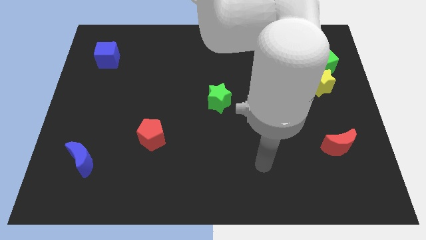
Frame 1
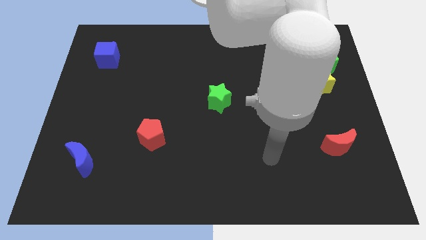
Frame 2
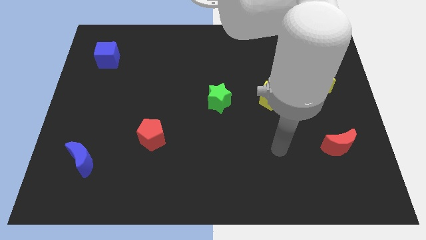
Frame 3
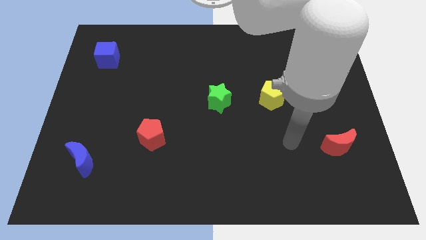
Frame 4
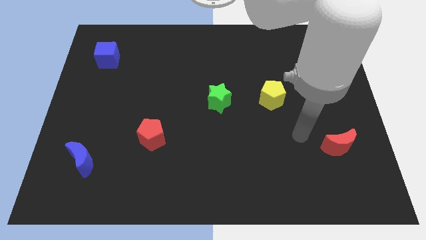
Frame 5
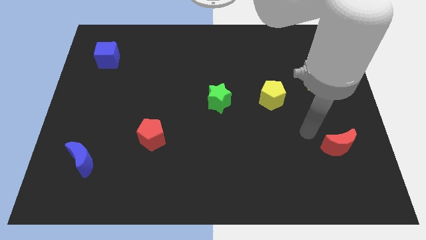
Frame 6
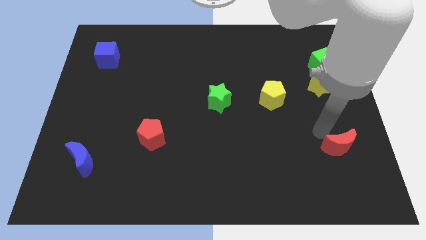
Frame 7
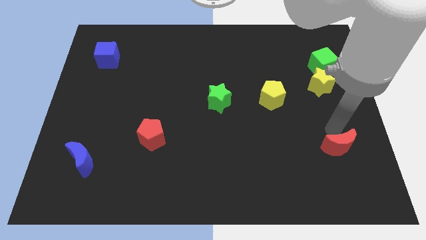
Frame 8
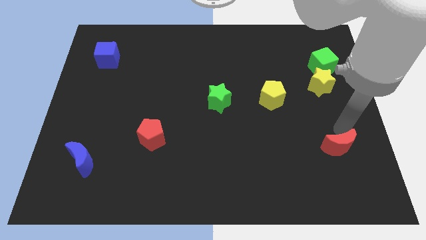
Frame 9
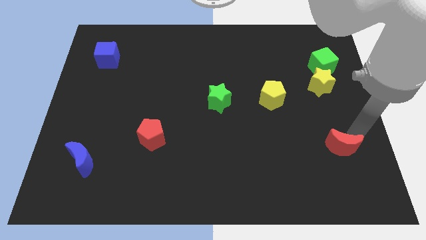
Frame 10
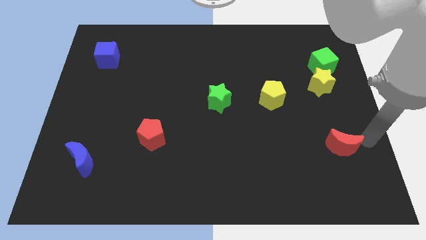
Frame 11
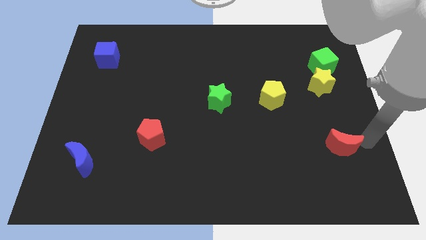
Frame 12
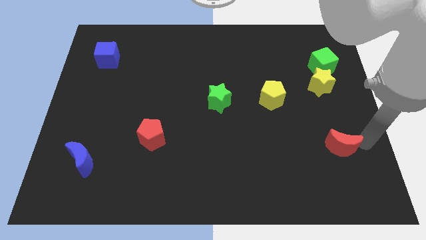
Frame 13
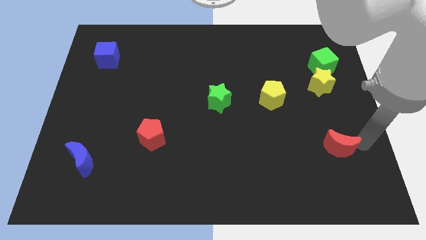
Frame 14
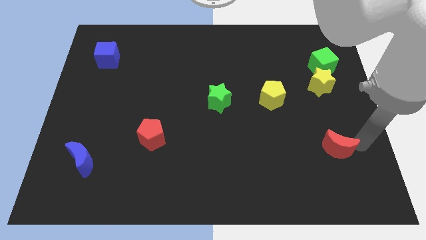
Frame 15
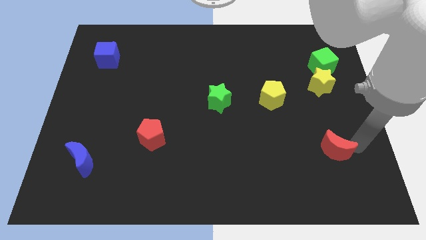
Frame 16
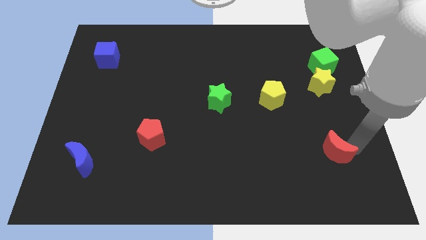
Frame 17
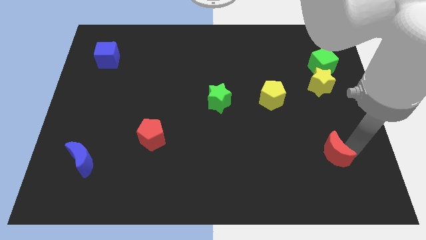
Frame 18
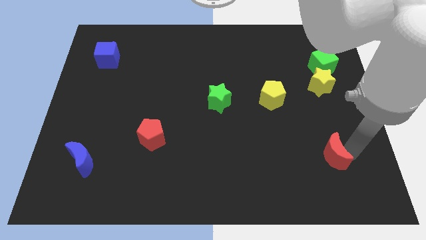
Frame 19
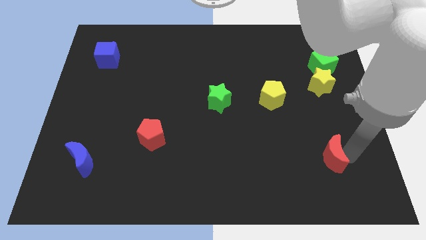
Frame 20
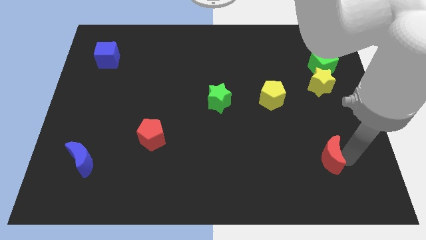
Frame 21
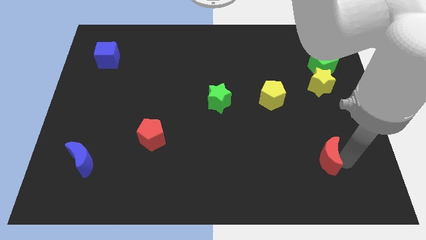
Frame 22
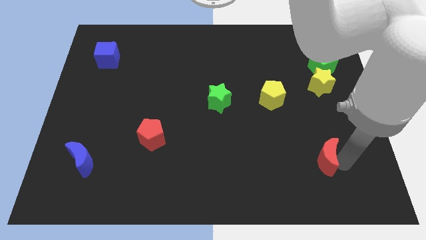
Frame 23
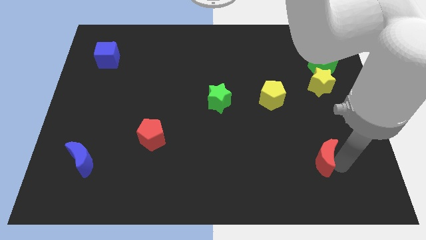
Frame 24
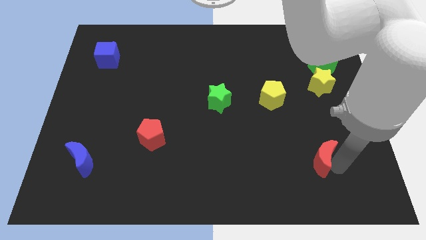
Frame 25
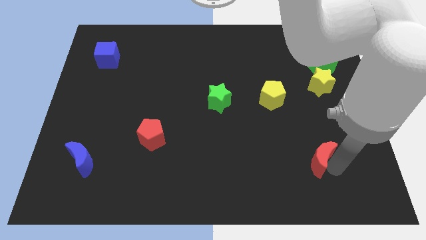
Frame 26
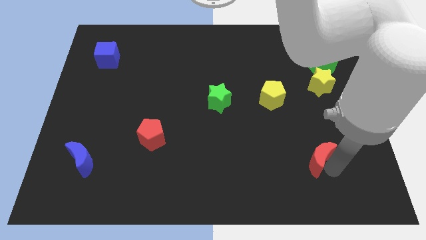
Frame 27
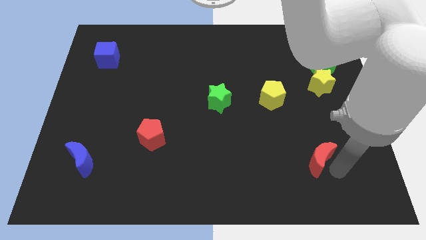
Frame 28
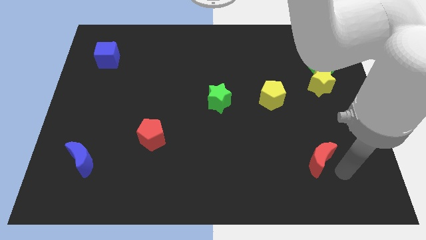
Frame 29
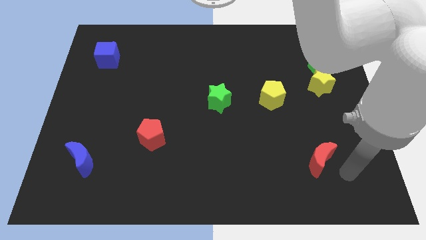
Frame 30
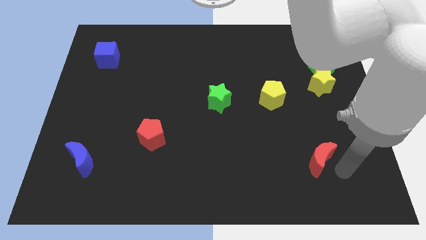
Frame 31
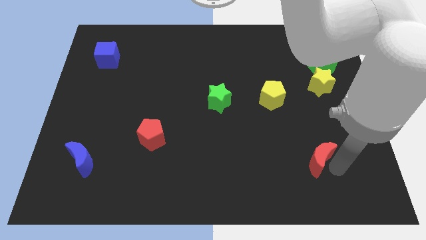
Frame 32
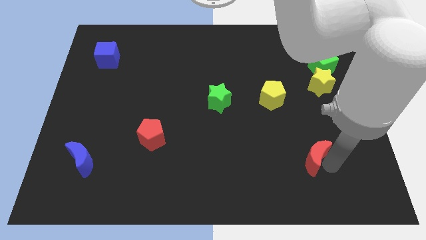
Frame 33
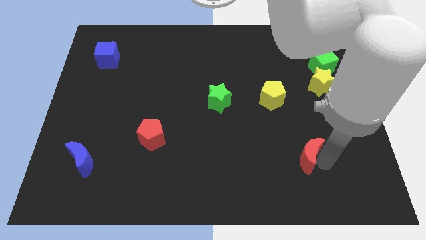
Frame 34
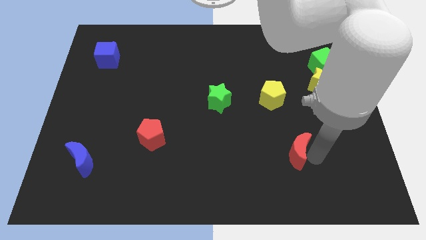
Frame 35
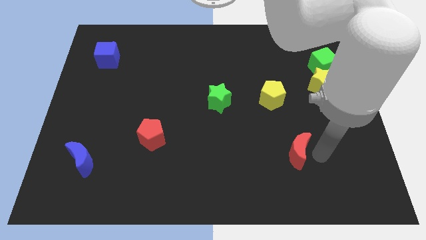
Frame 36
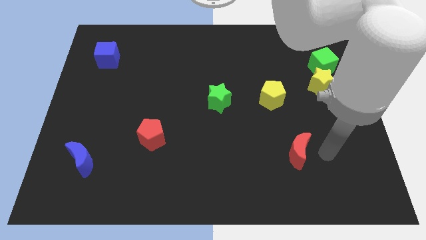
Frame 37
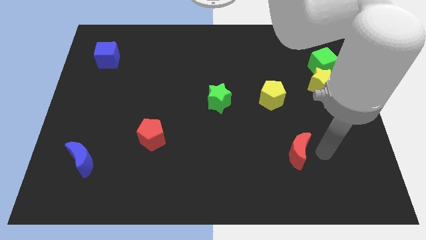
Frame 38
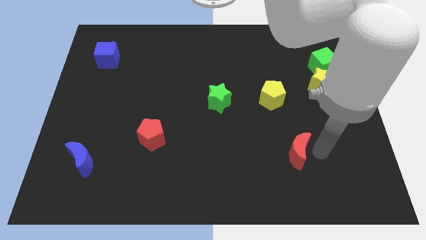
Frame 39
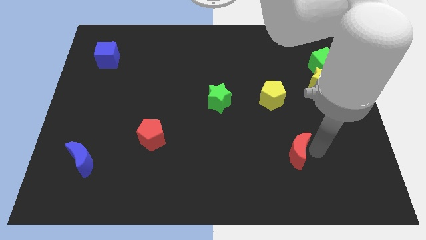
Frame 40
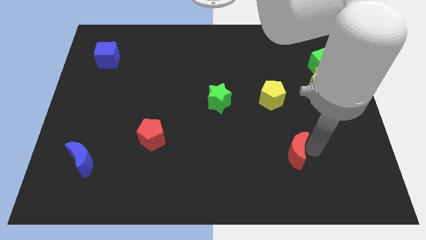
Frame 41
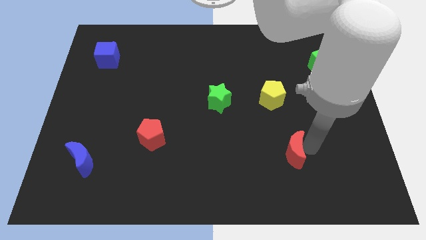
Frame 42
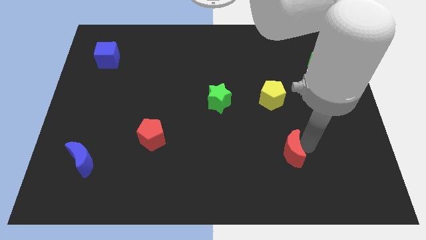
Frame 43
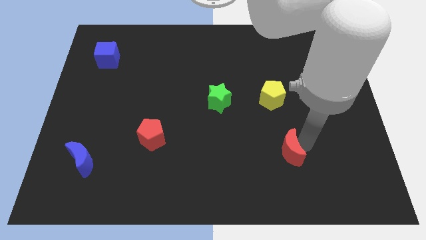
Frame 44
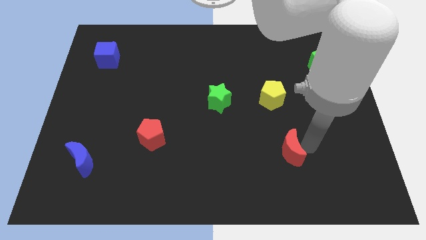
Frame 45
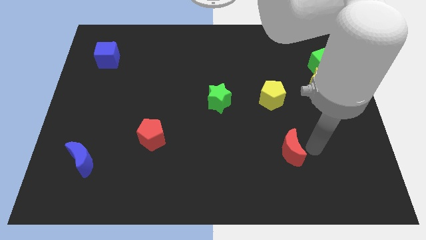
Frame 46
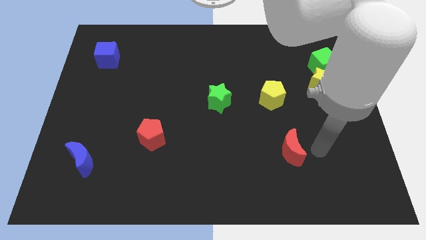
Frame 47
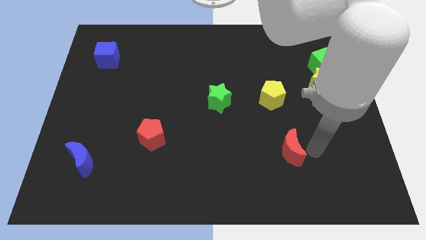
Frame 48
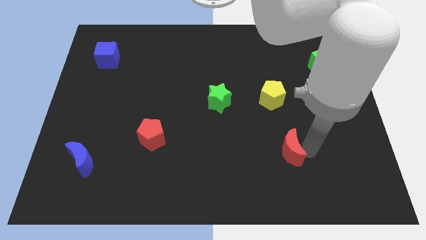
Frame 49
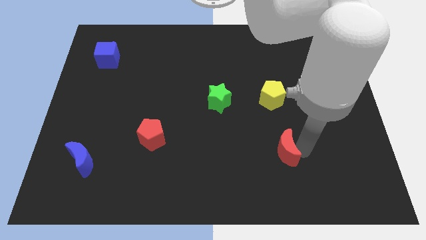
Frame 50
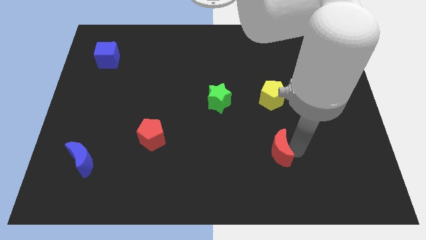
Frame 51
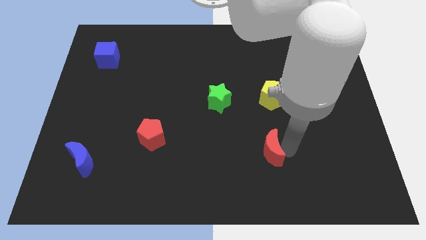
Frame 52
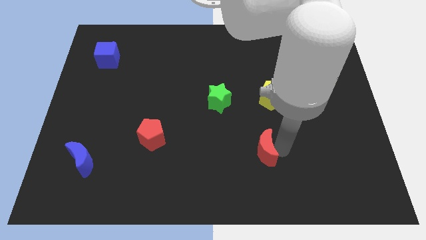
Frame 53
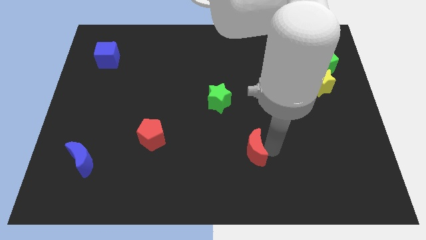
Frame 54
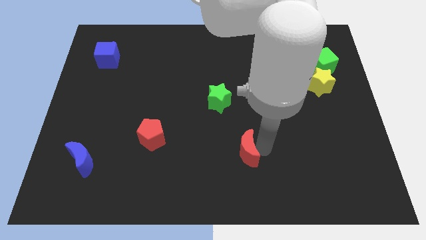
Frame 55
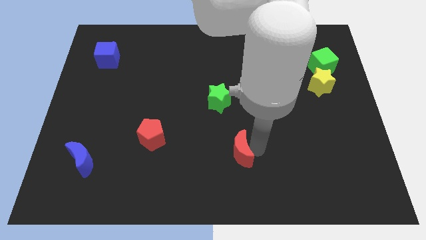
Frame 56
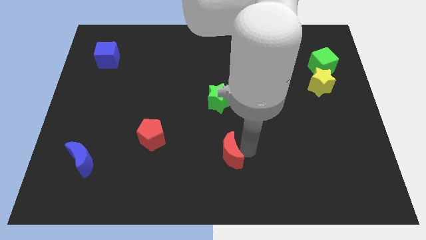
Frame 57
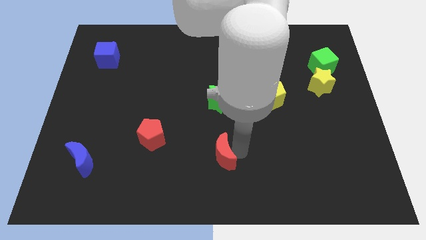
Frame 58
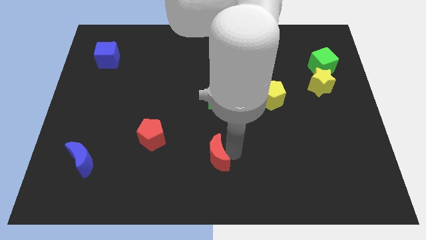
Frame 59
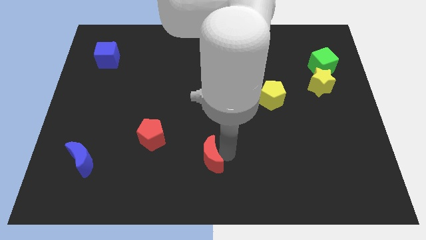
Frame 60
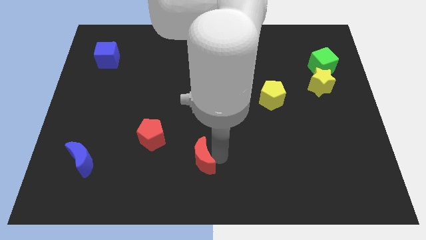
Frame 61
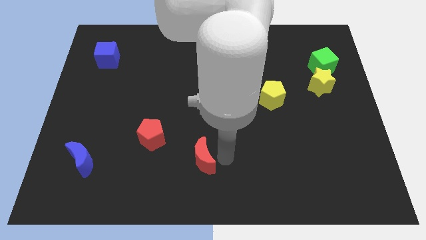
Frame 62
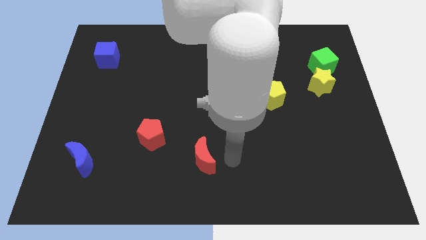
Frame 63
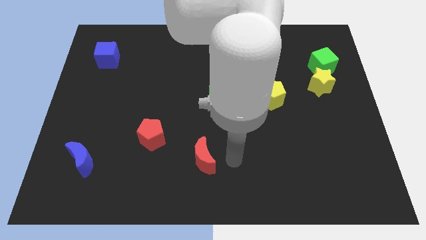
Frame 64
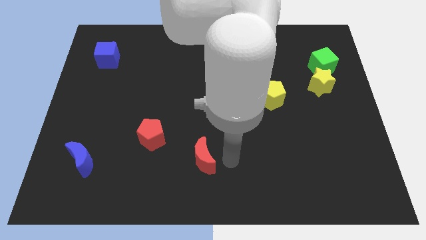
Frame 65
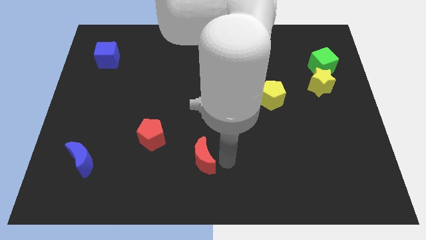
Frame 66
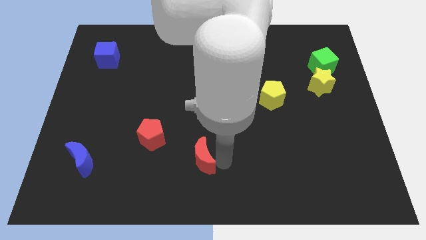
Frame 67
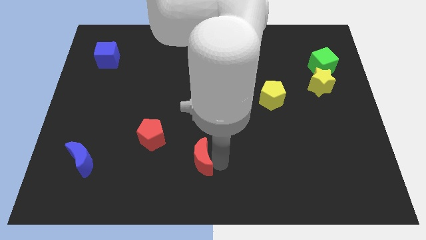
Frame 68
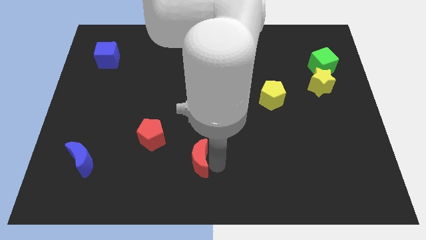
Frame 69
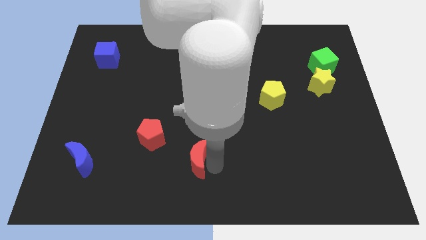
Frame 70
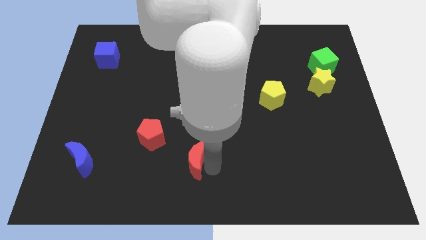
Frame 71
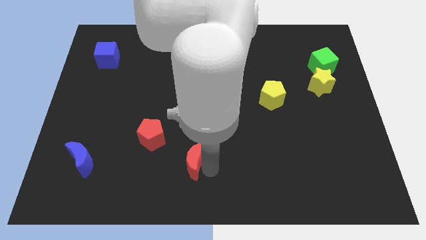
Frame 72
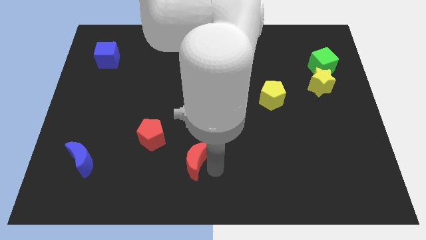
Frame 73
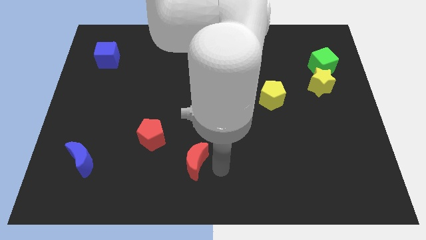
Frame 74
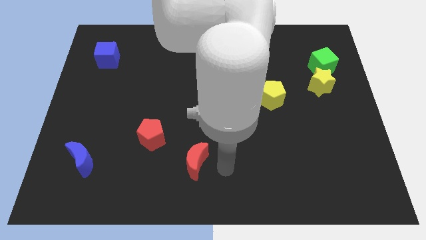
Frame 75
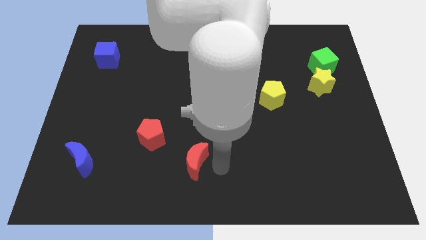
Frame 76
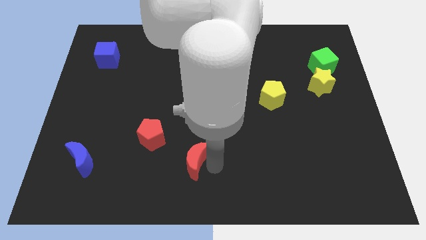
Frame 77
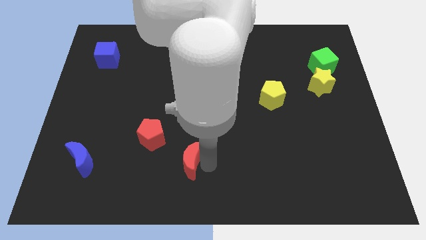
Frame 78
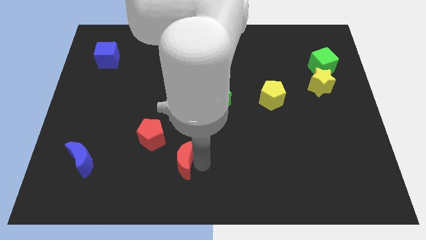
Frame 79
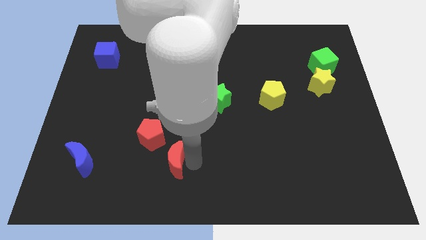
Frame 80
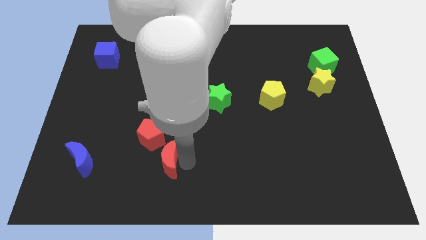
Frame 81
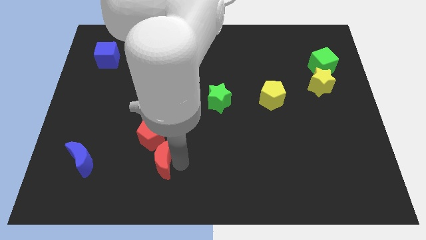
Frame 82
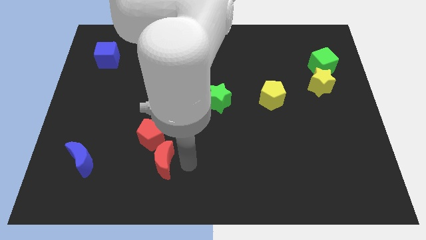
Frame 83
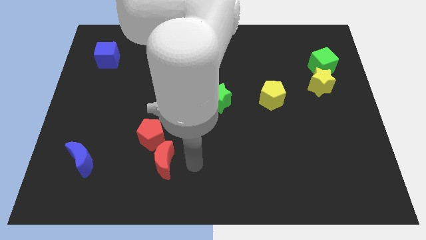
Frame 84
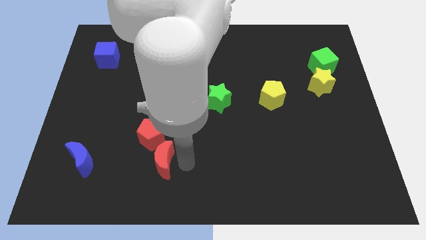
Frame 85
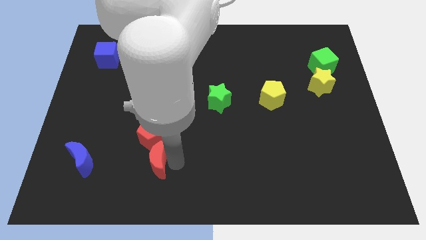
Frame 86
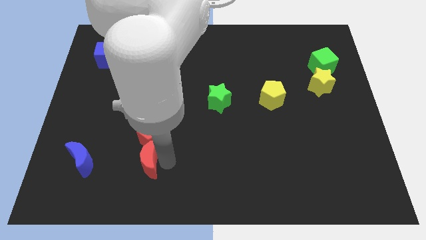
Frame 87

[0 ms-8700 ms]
push the red moon diagonally down and to the left of the red pentagon
